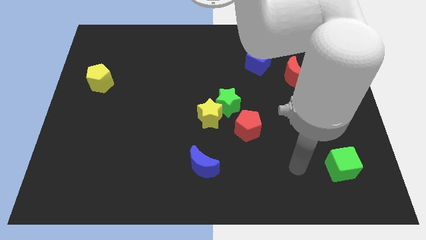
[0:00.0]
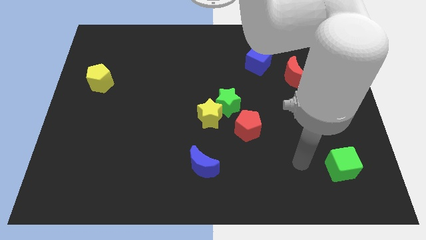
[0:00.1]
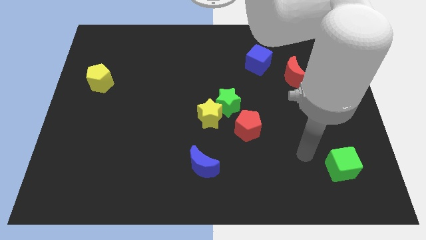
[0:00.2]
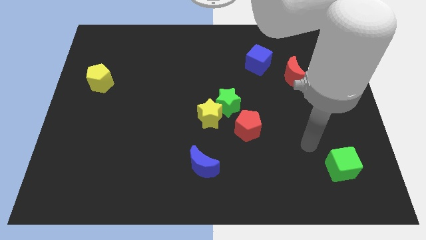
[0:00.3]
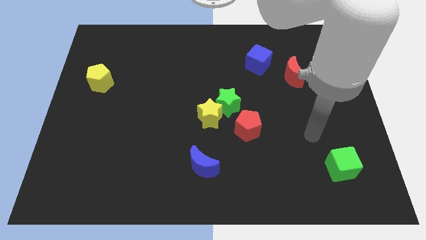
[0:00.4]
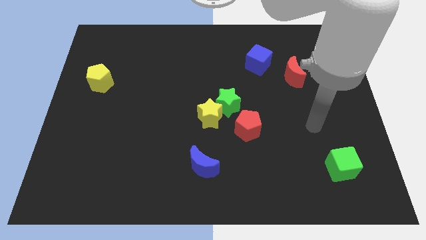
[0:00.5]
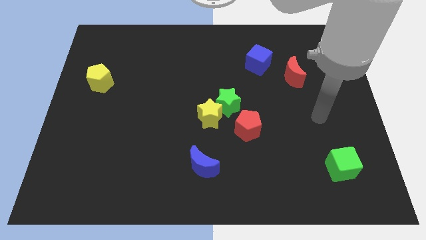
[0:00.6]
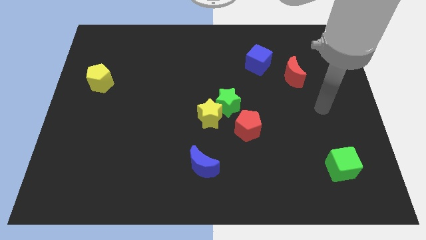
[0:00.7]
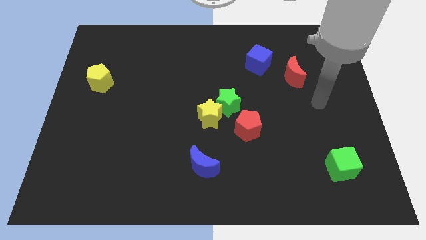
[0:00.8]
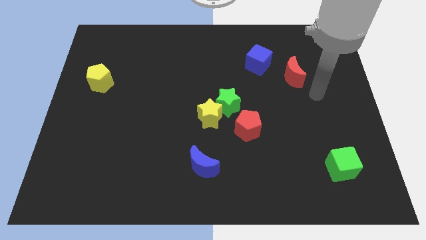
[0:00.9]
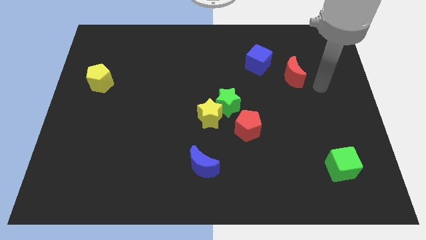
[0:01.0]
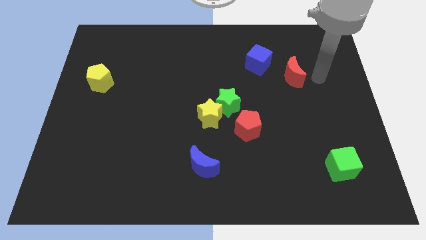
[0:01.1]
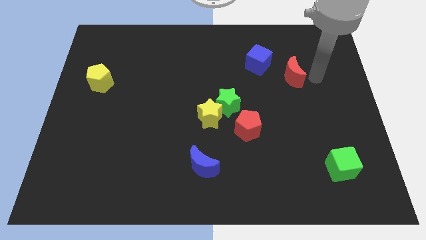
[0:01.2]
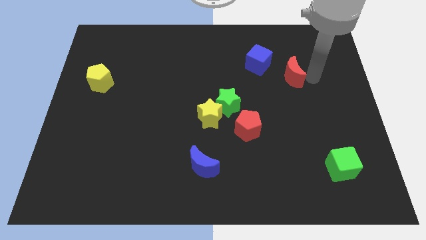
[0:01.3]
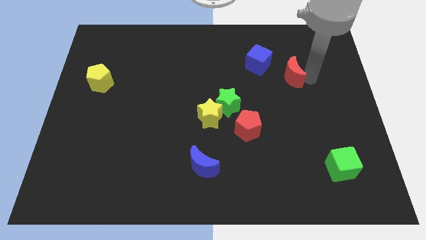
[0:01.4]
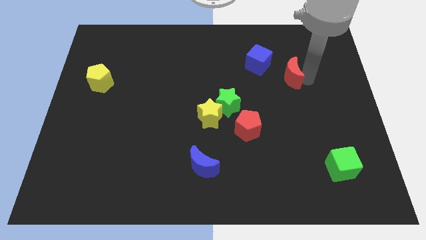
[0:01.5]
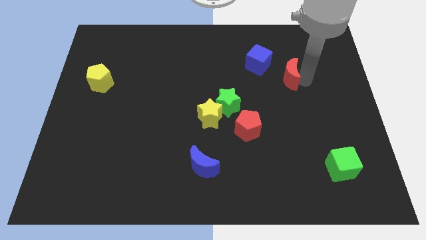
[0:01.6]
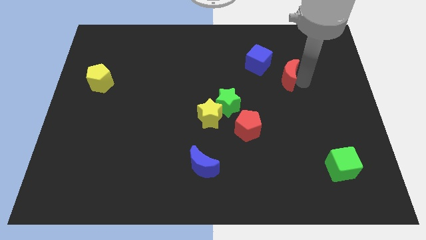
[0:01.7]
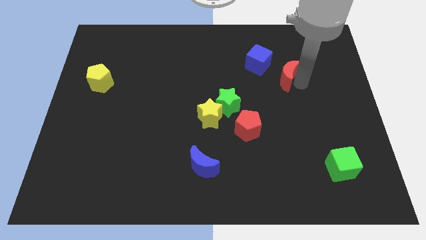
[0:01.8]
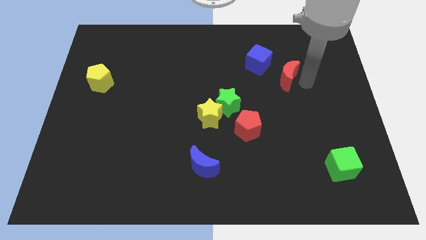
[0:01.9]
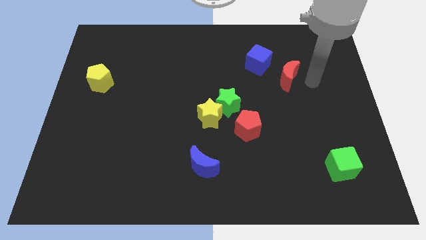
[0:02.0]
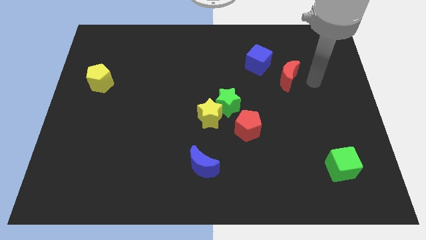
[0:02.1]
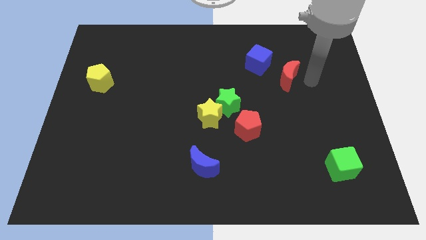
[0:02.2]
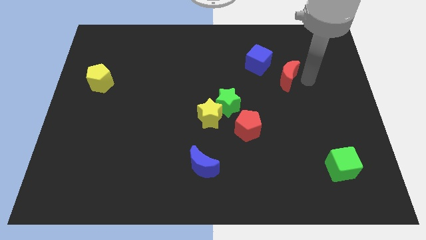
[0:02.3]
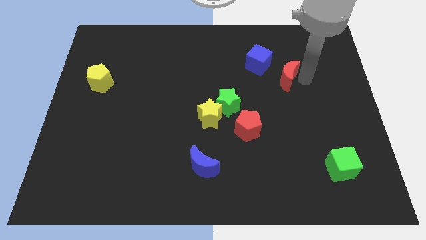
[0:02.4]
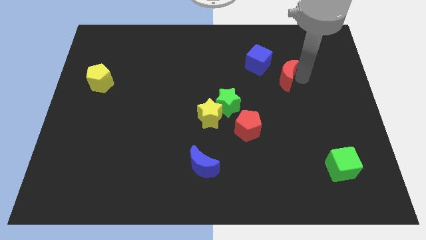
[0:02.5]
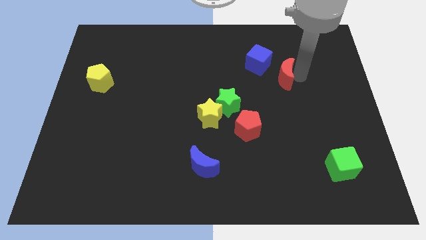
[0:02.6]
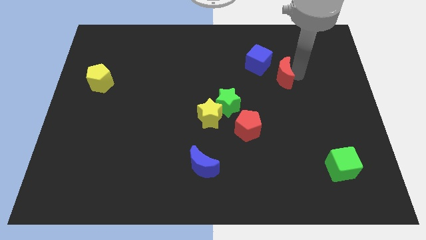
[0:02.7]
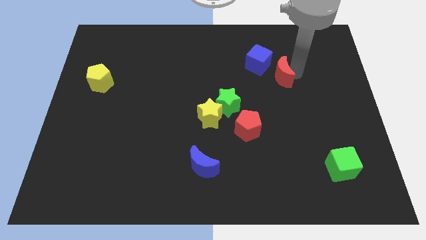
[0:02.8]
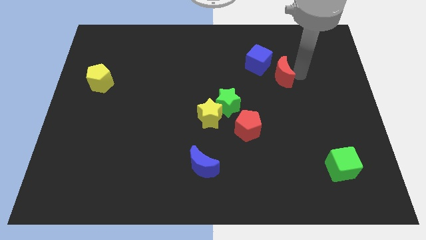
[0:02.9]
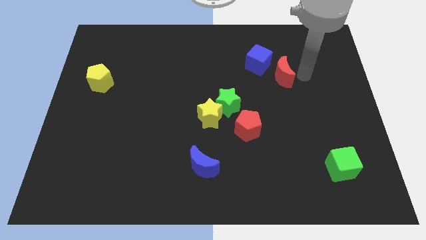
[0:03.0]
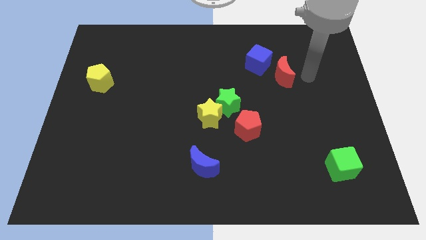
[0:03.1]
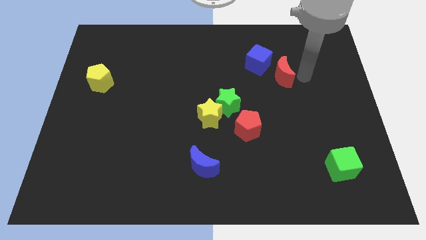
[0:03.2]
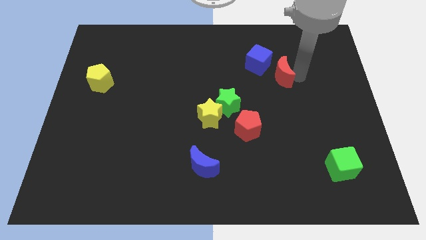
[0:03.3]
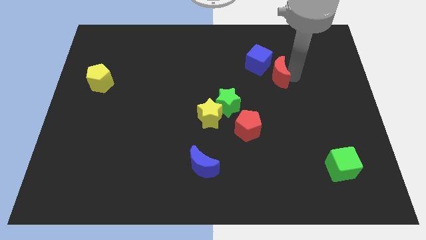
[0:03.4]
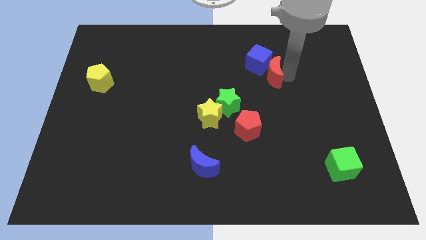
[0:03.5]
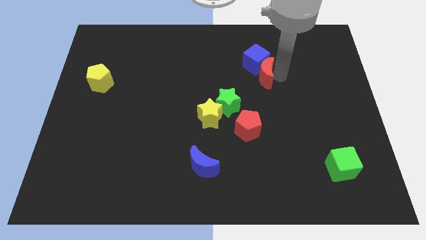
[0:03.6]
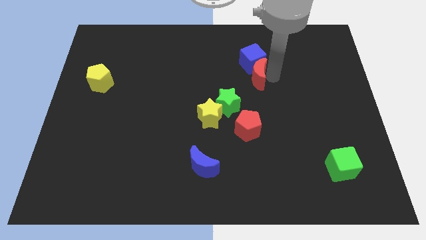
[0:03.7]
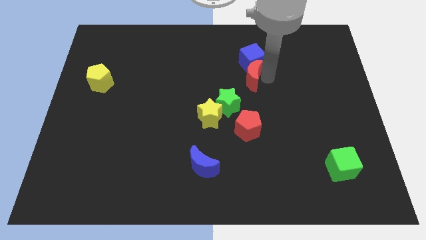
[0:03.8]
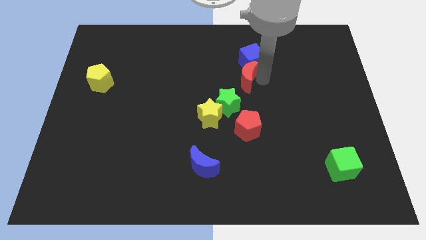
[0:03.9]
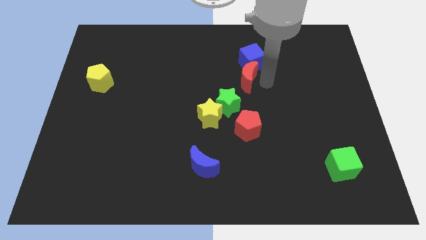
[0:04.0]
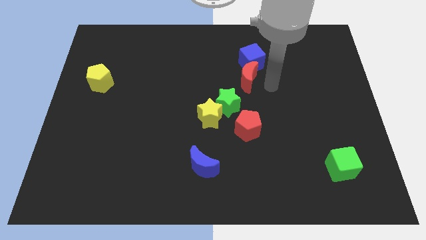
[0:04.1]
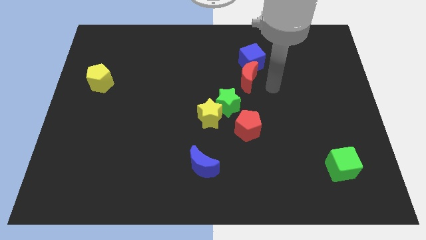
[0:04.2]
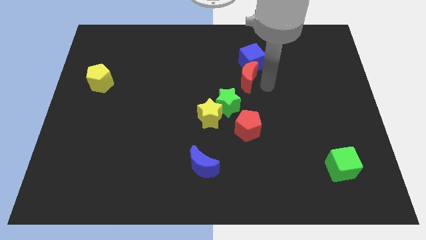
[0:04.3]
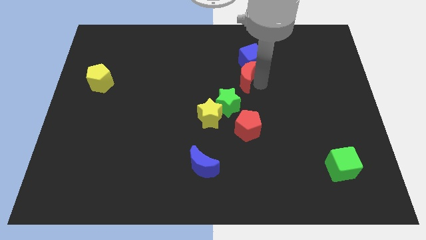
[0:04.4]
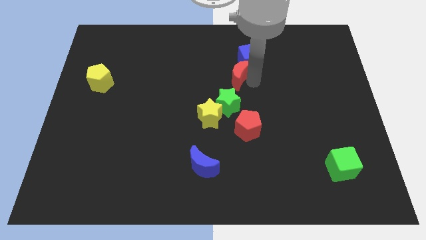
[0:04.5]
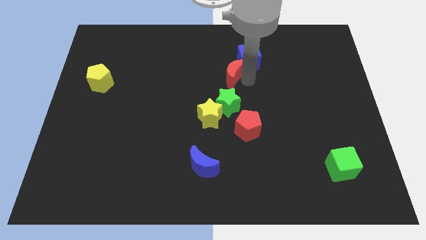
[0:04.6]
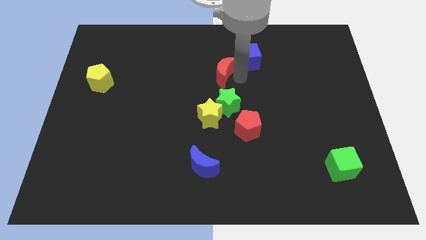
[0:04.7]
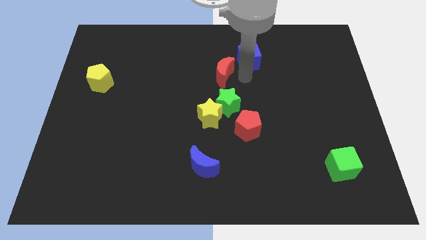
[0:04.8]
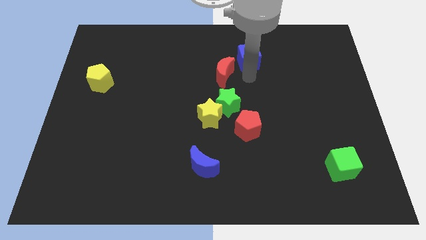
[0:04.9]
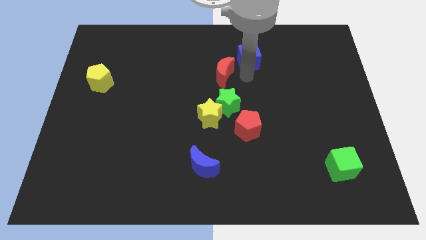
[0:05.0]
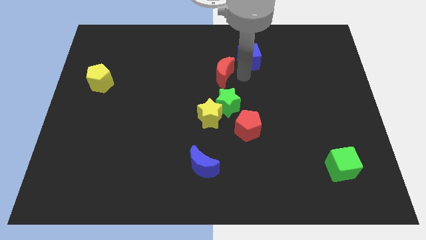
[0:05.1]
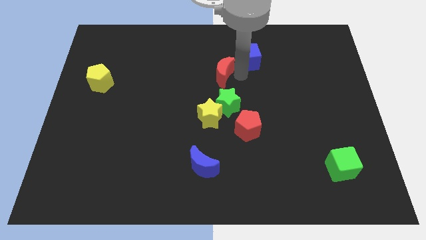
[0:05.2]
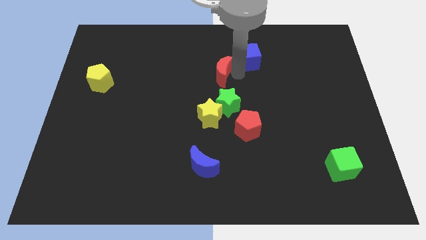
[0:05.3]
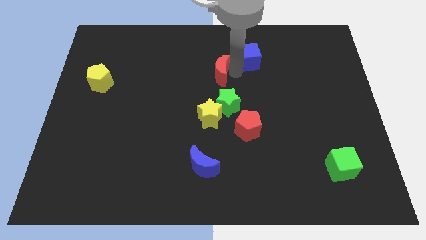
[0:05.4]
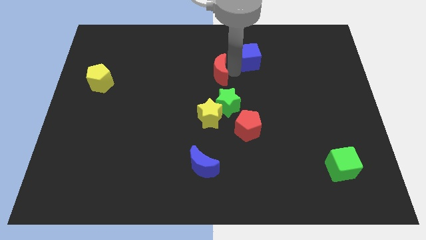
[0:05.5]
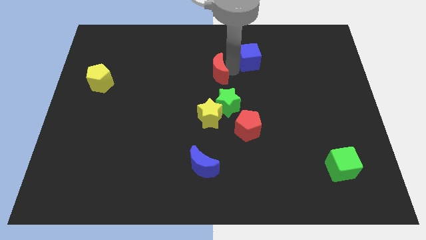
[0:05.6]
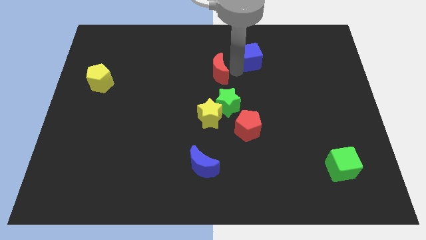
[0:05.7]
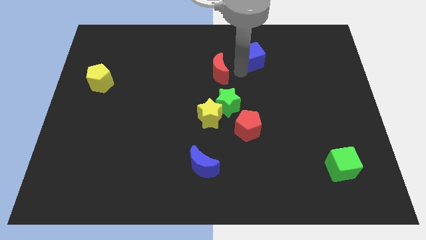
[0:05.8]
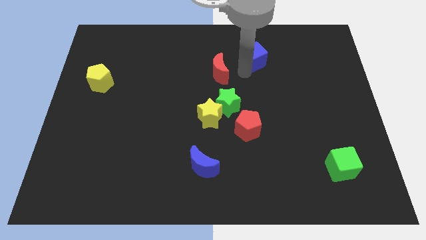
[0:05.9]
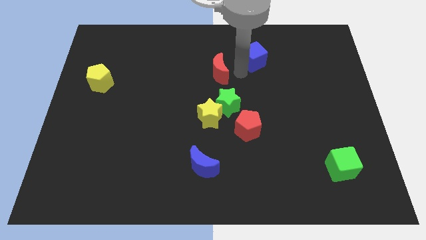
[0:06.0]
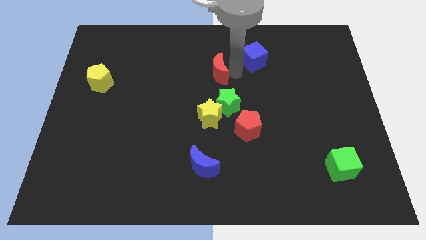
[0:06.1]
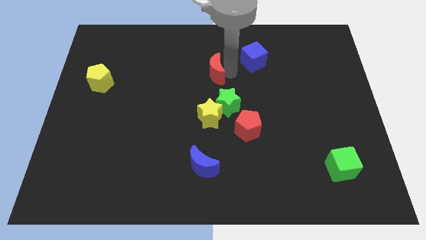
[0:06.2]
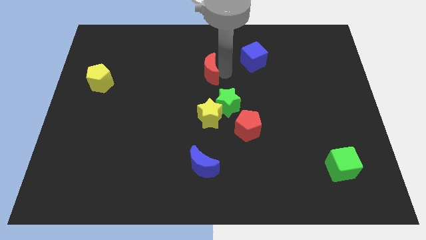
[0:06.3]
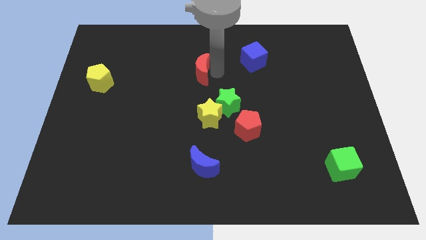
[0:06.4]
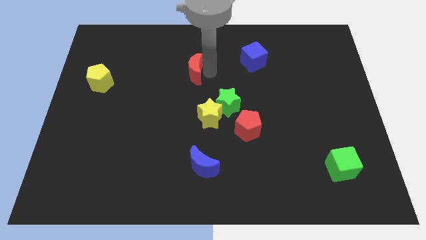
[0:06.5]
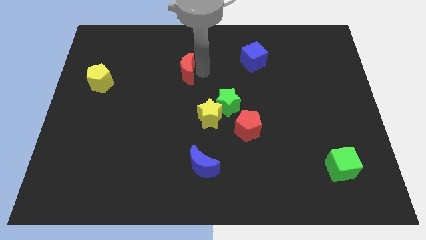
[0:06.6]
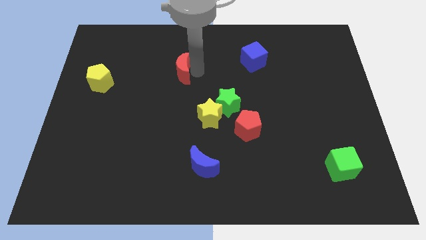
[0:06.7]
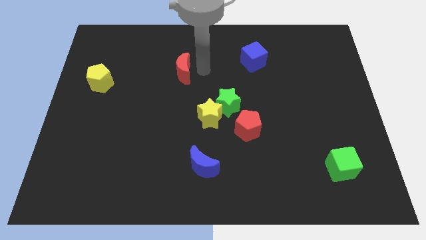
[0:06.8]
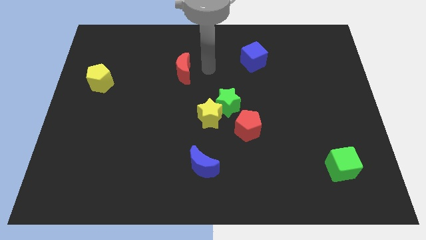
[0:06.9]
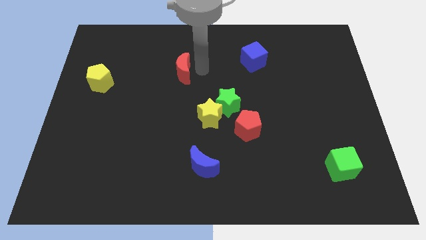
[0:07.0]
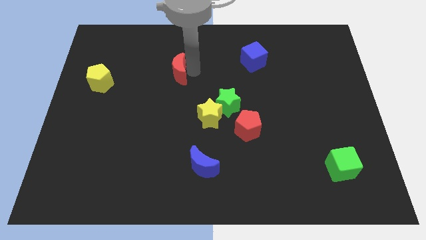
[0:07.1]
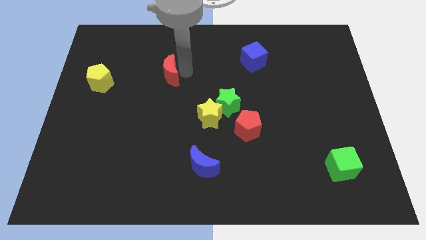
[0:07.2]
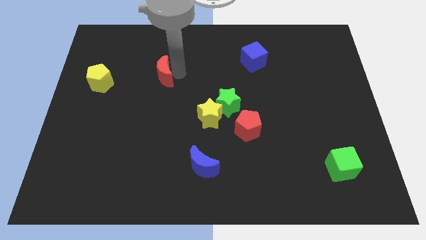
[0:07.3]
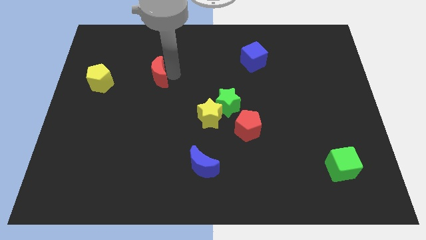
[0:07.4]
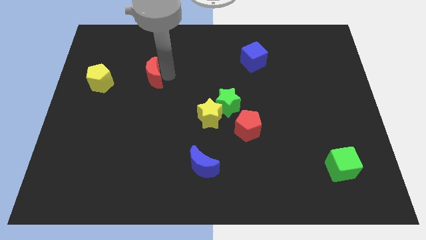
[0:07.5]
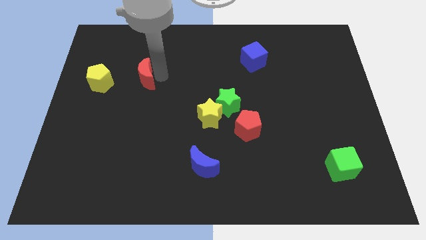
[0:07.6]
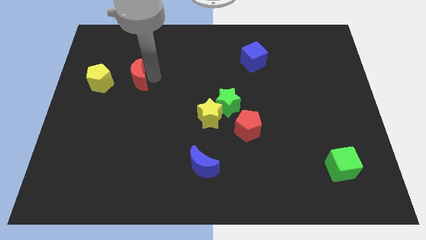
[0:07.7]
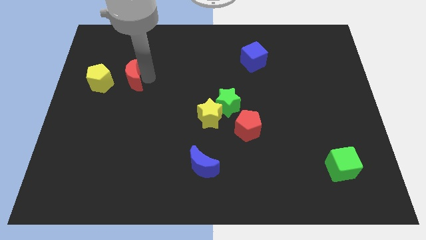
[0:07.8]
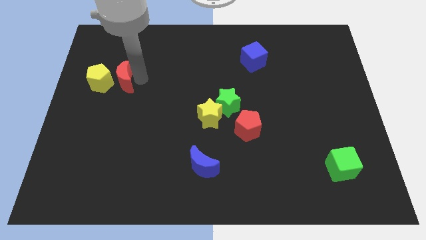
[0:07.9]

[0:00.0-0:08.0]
slide the red moon close to the yellow pentagon
